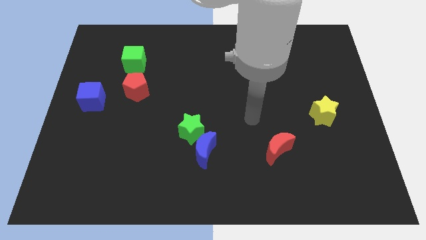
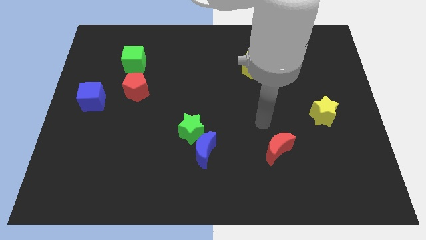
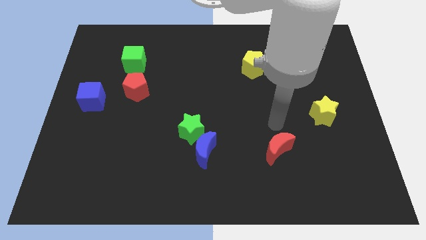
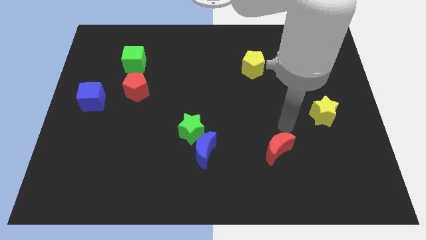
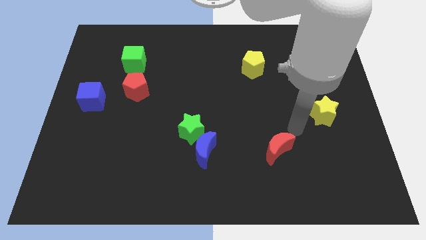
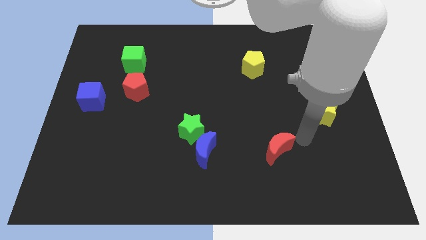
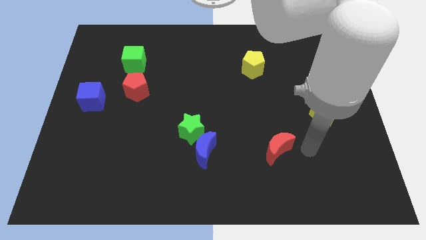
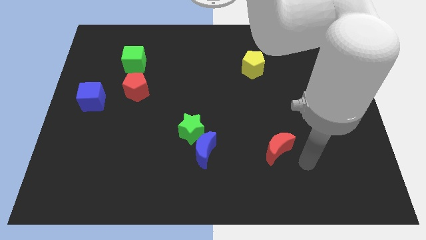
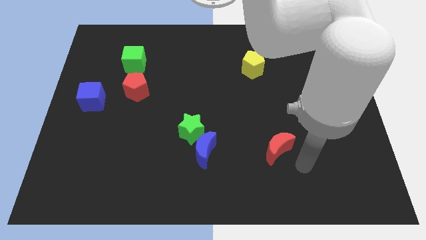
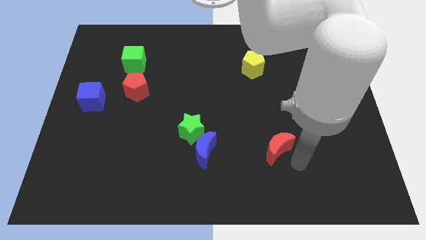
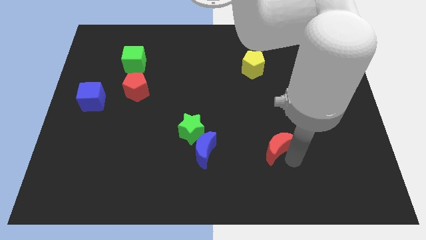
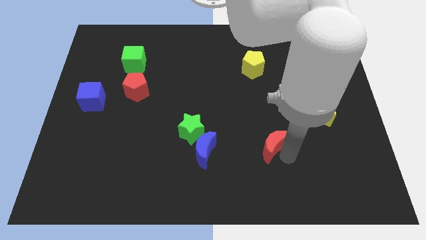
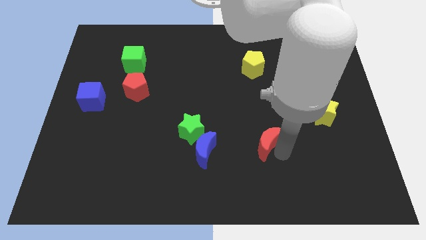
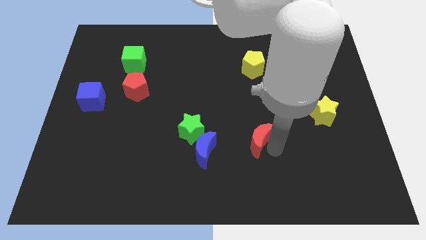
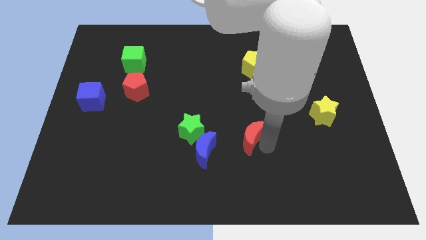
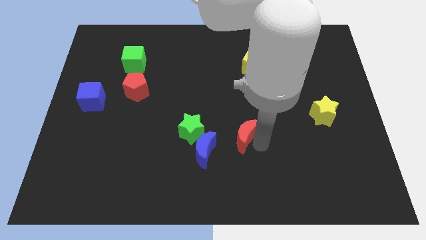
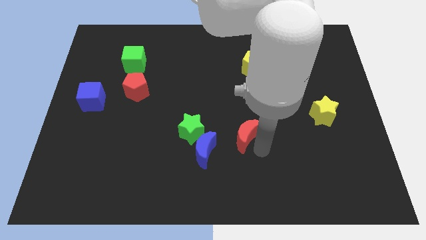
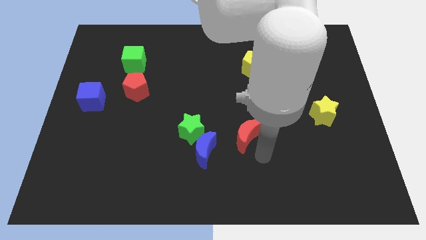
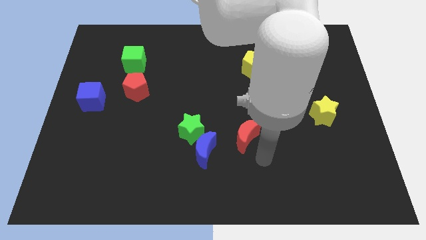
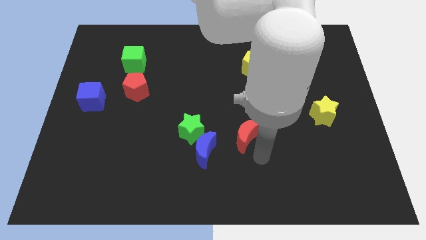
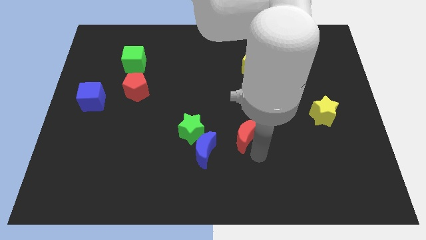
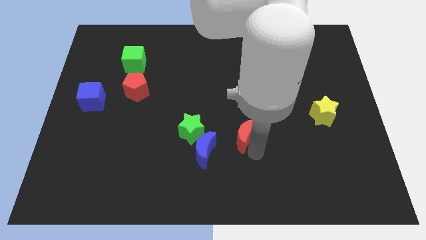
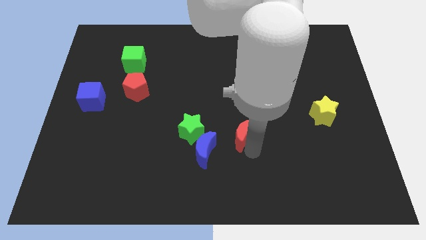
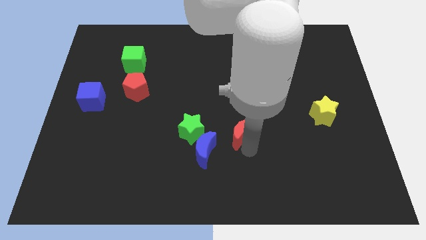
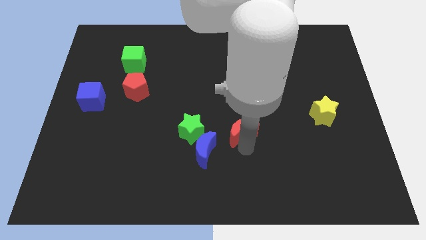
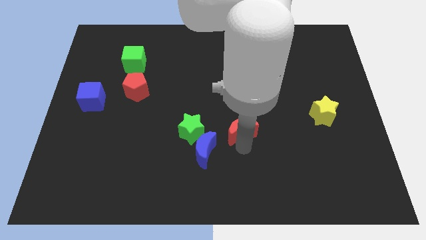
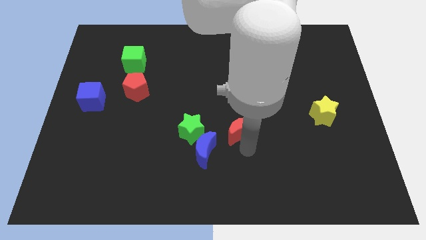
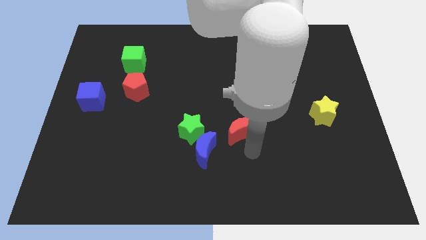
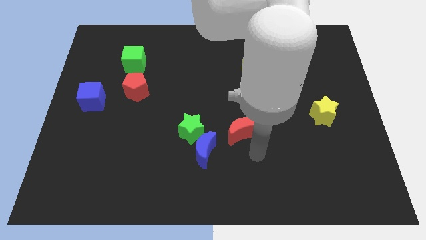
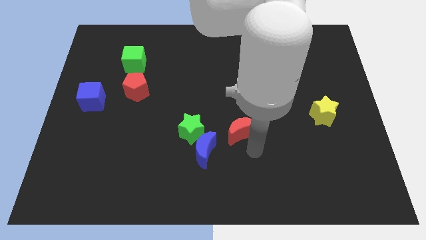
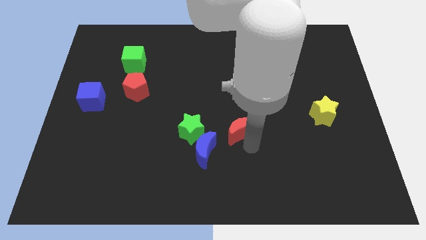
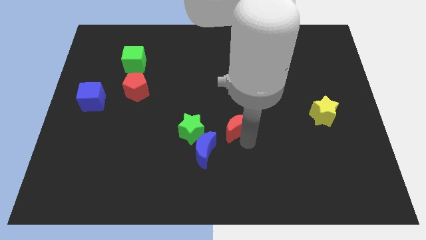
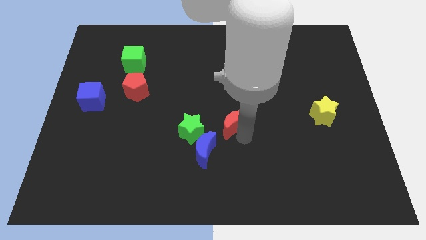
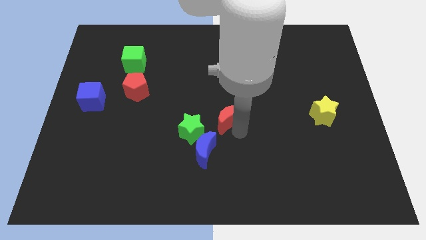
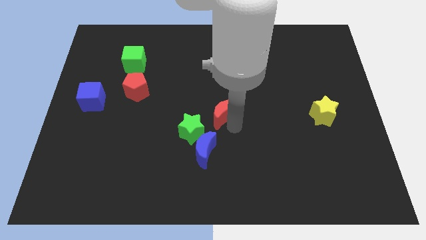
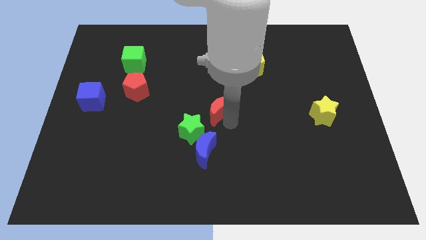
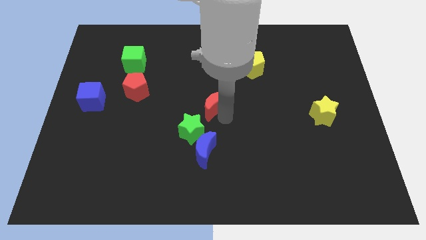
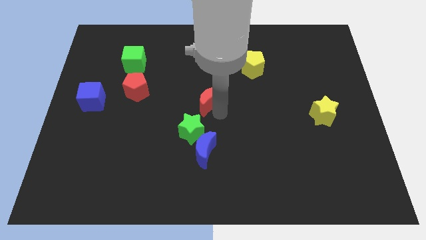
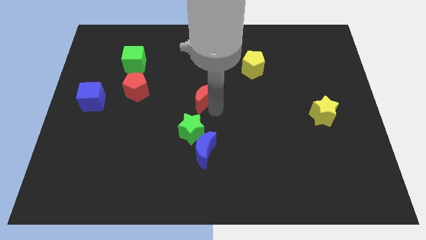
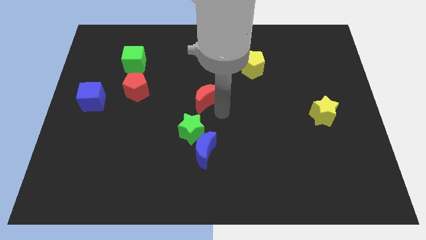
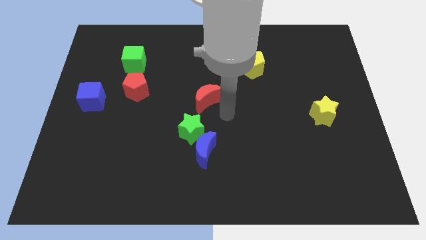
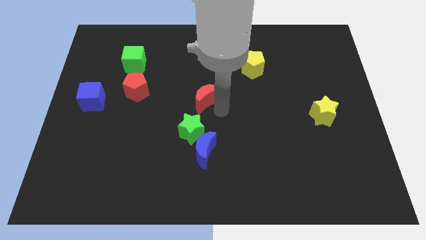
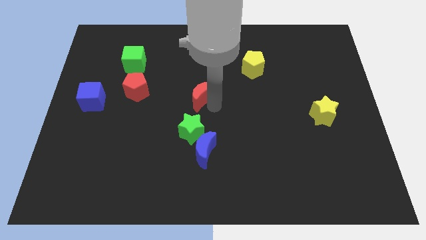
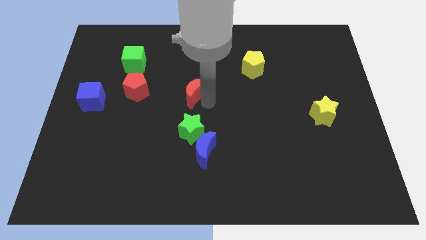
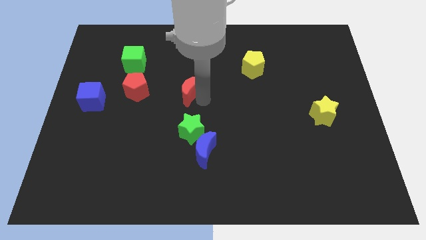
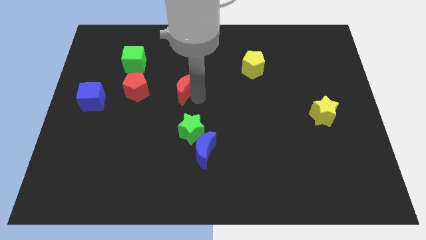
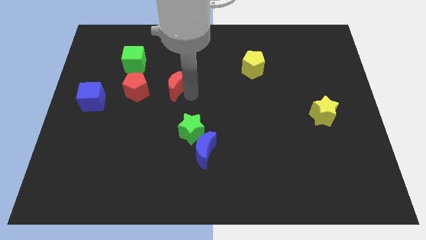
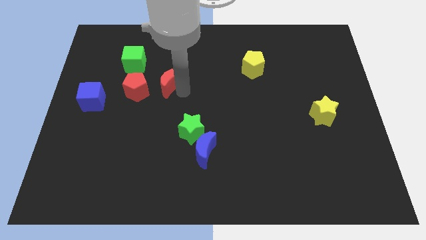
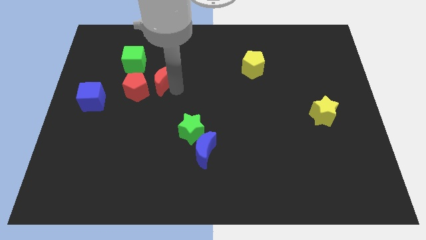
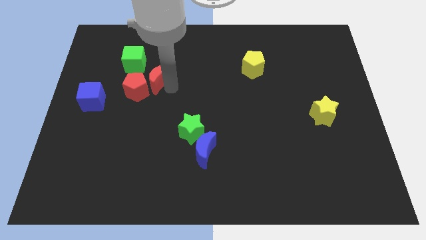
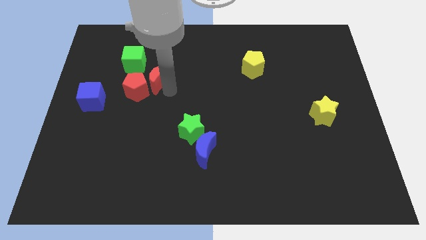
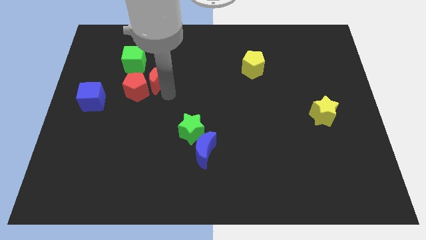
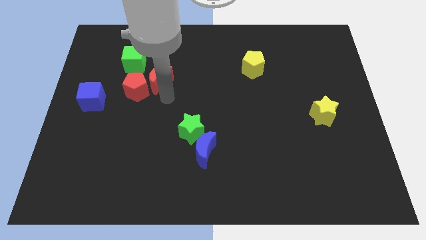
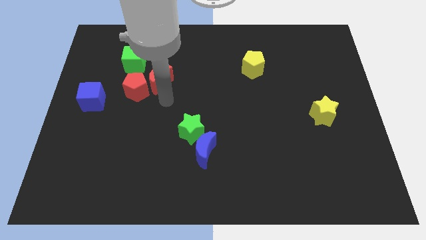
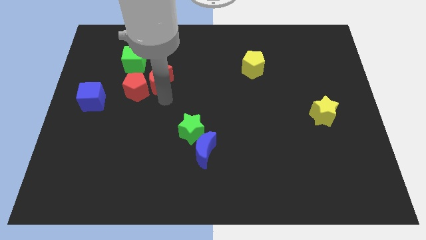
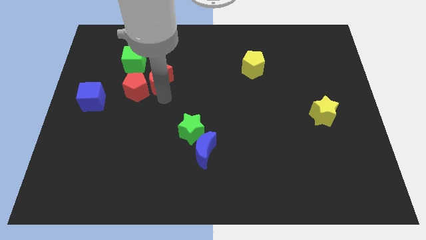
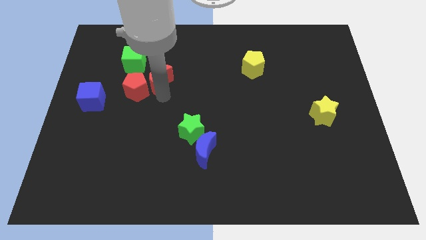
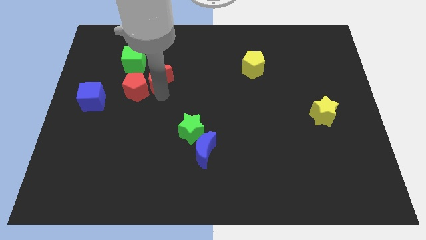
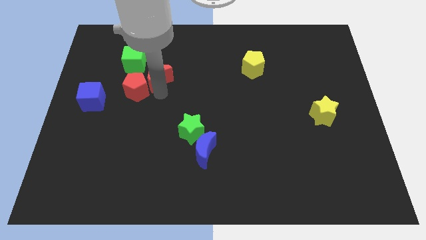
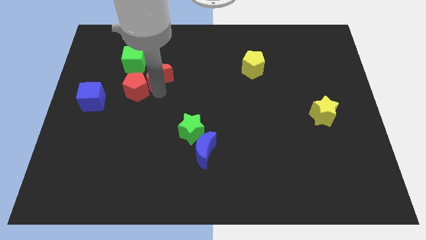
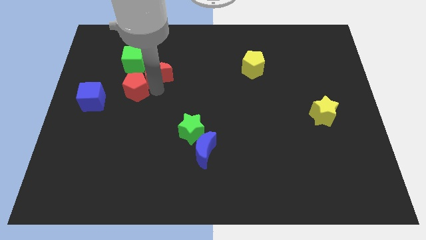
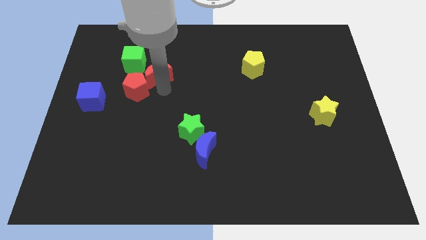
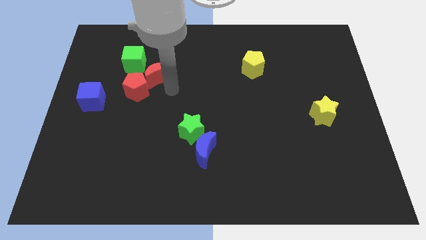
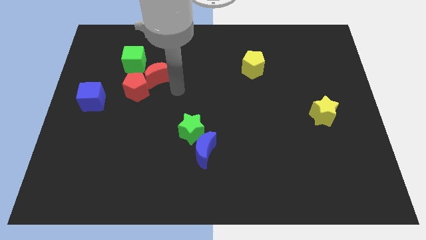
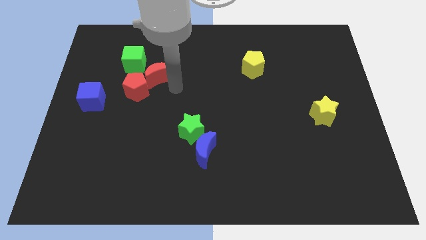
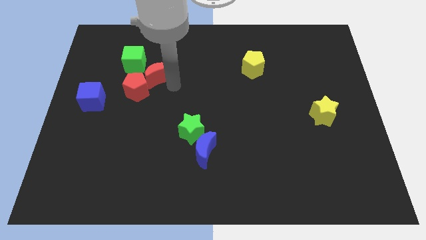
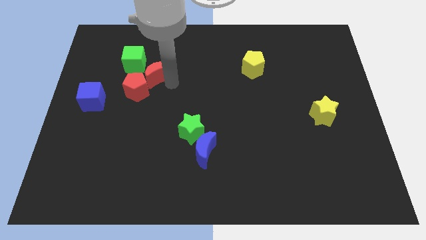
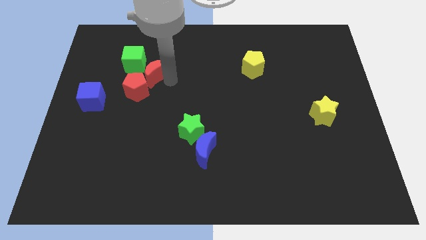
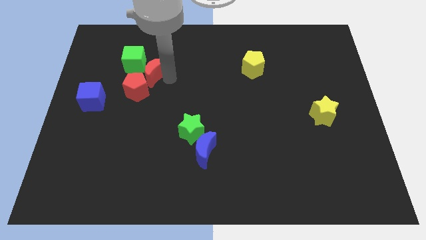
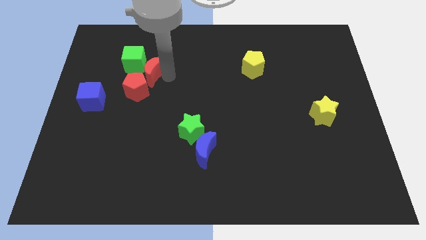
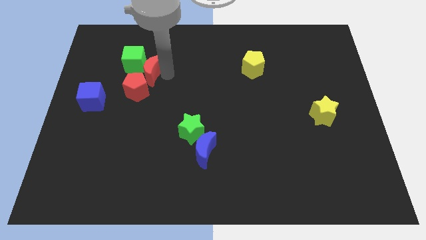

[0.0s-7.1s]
put the red moon next to the green cube

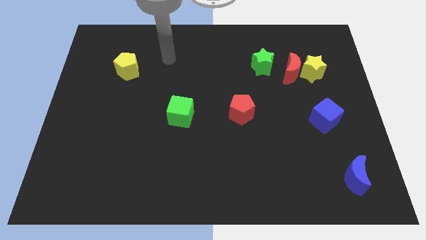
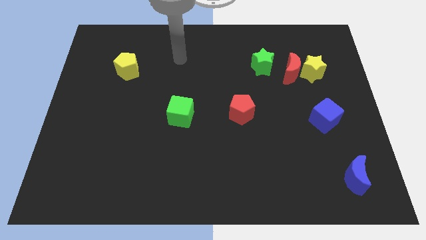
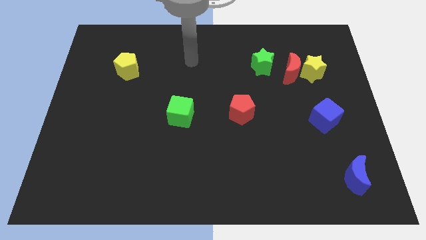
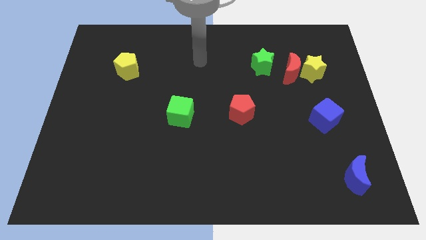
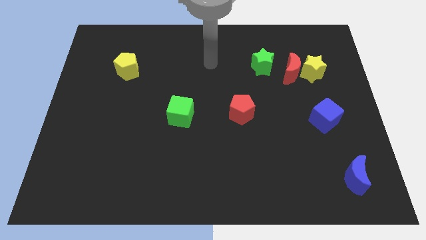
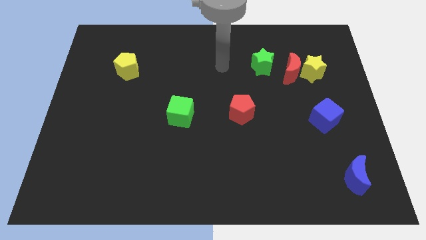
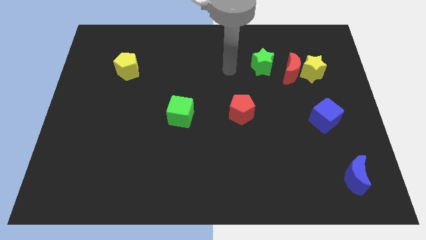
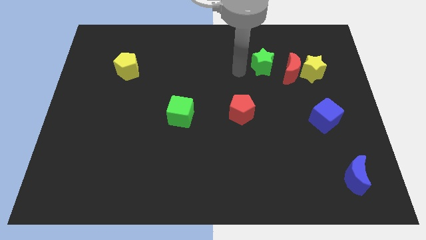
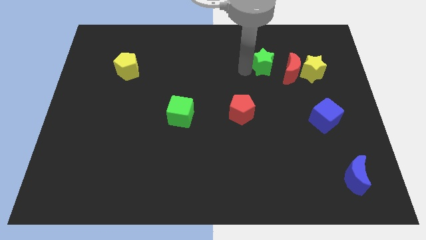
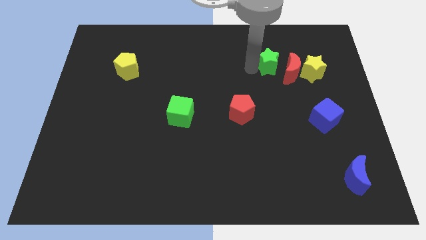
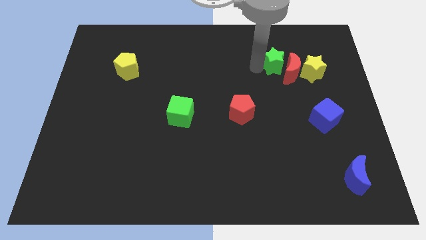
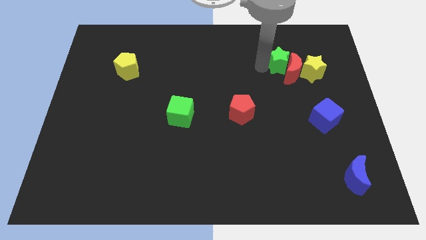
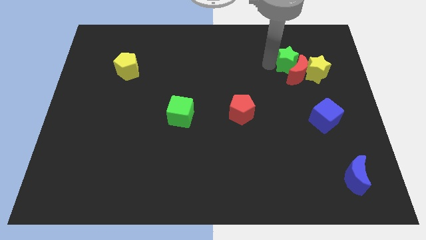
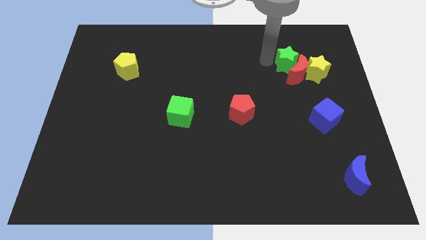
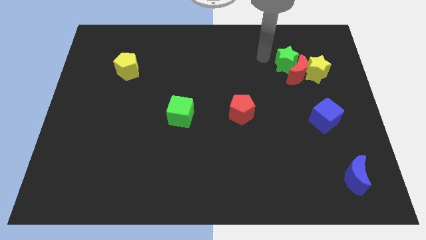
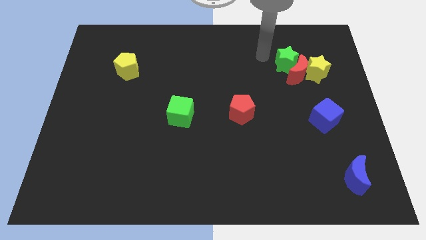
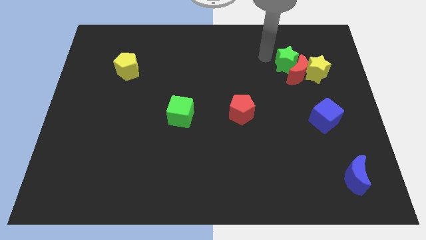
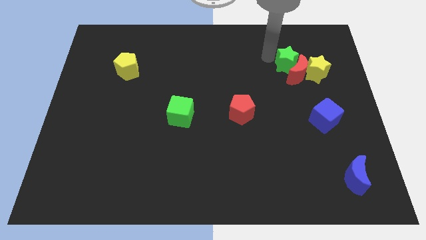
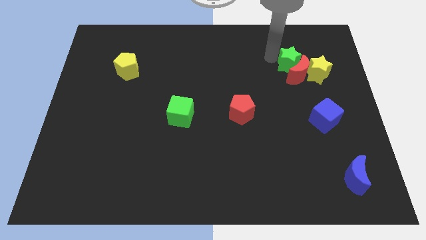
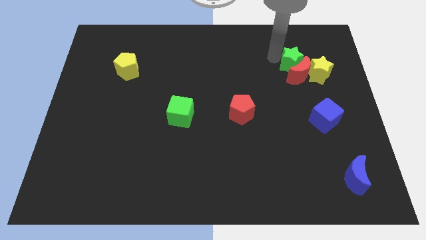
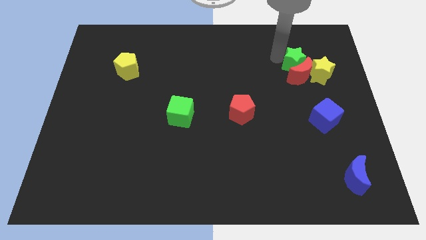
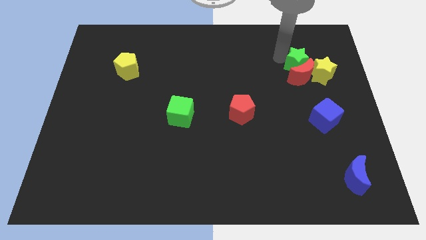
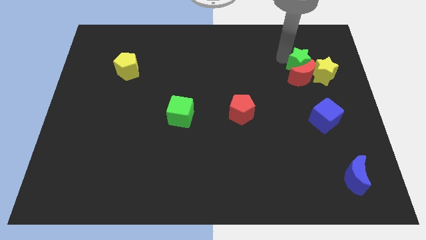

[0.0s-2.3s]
push the green star to the yellow star
